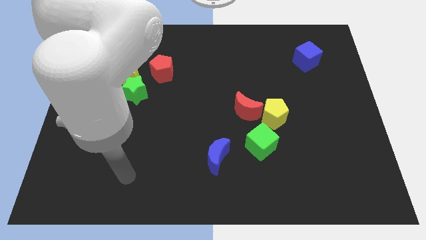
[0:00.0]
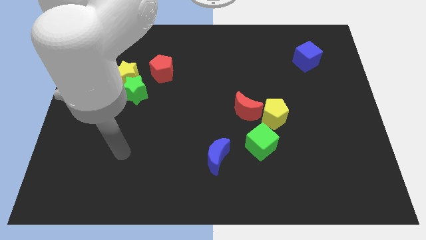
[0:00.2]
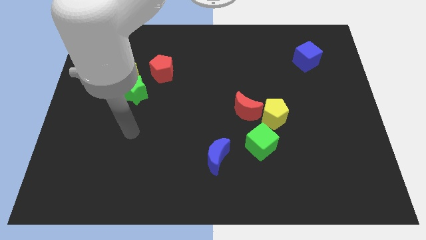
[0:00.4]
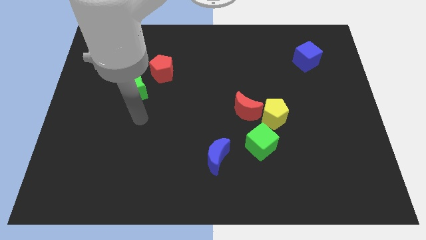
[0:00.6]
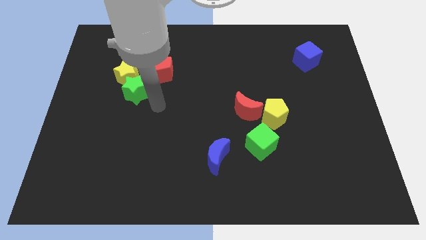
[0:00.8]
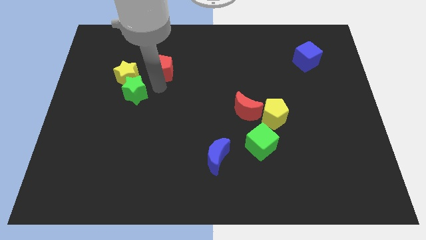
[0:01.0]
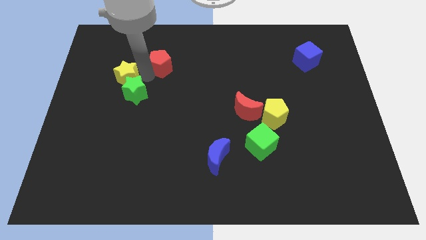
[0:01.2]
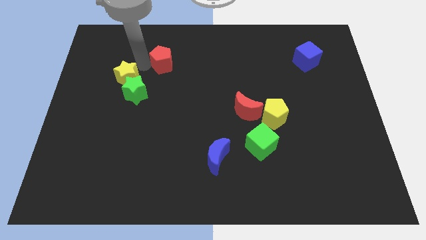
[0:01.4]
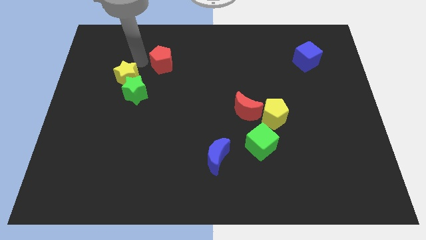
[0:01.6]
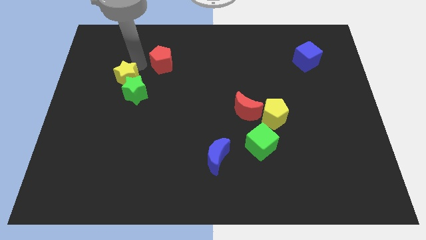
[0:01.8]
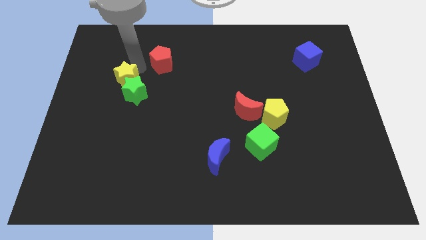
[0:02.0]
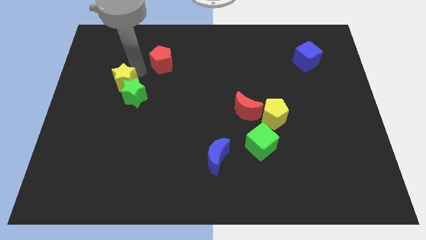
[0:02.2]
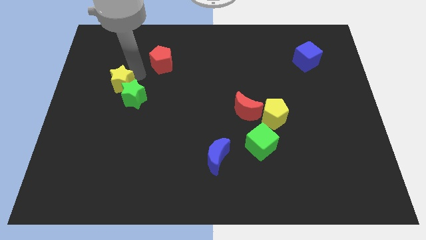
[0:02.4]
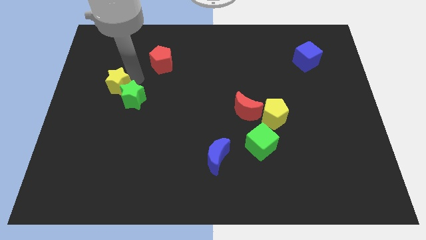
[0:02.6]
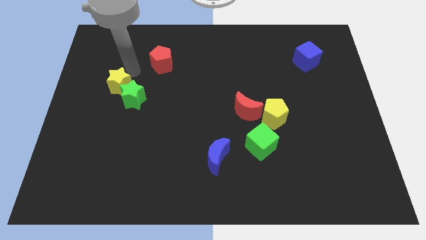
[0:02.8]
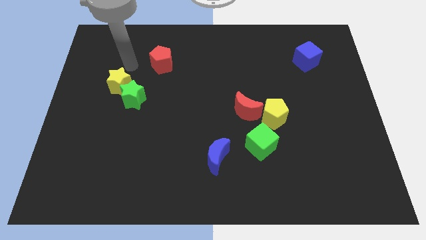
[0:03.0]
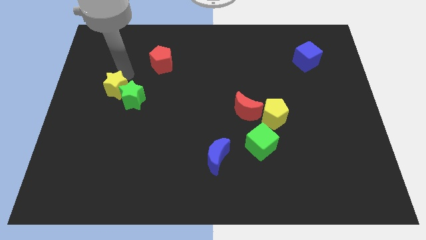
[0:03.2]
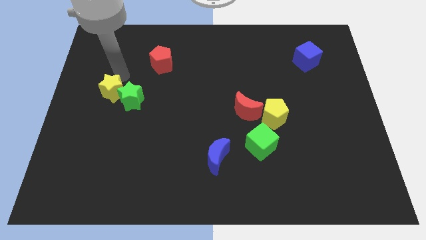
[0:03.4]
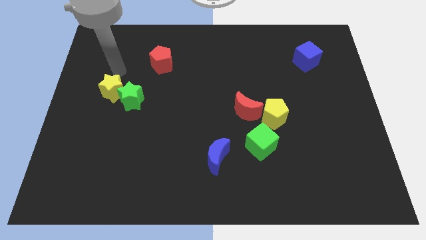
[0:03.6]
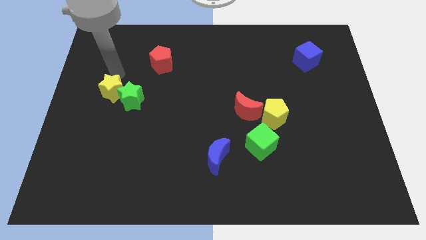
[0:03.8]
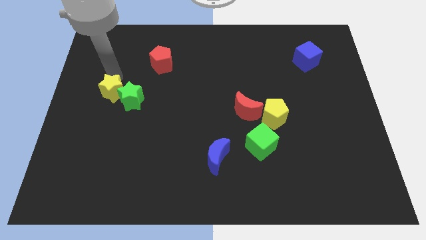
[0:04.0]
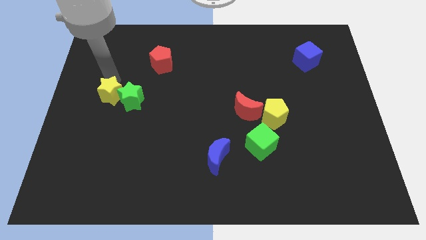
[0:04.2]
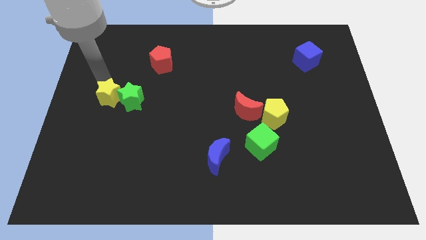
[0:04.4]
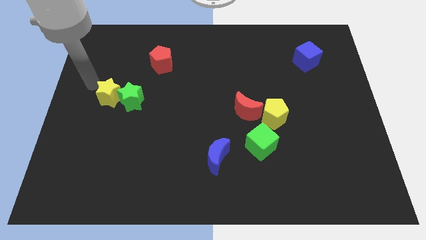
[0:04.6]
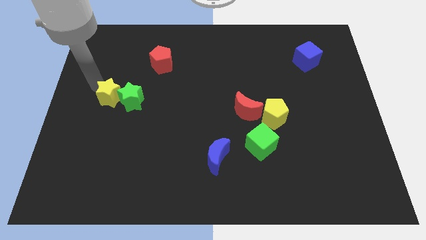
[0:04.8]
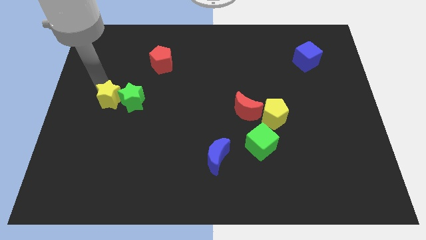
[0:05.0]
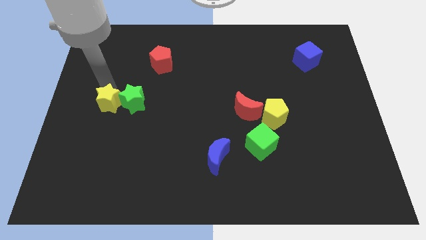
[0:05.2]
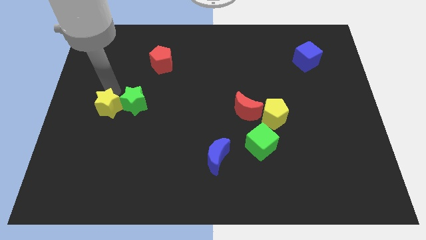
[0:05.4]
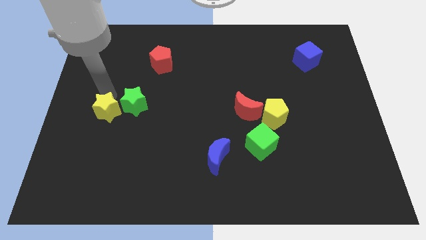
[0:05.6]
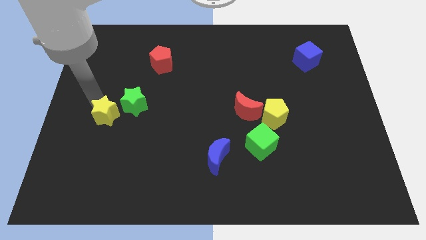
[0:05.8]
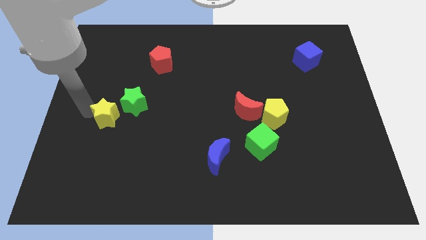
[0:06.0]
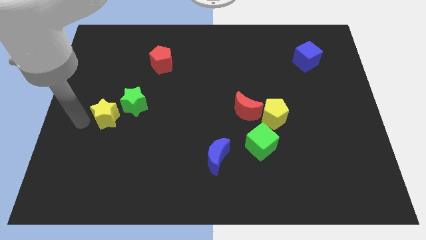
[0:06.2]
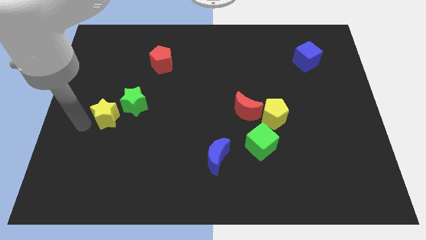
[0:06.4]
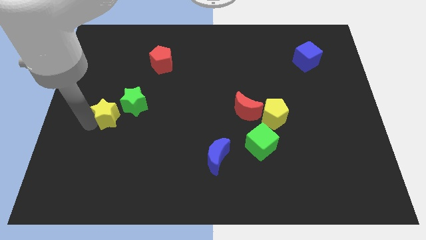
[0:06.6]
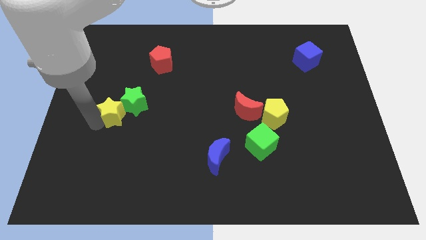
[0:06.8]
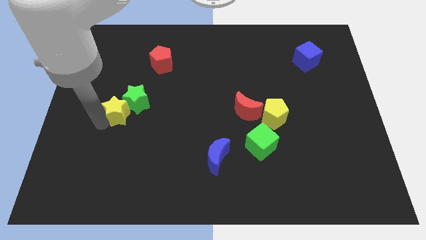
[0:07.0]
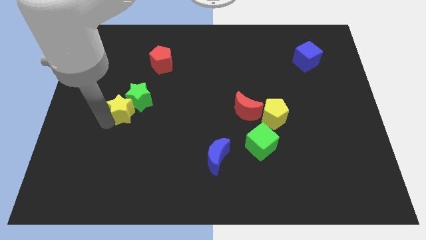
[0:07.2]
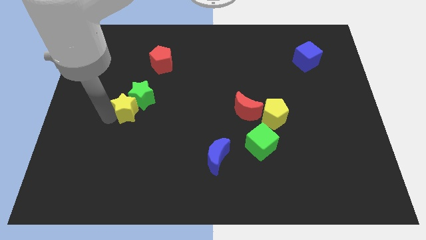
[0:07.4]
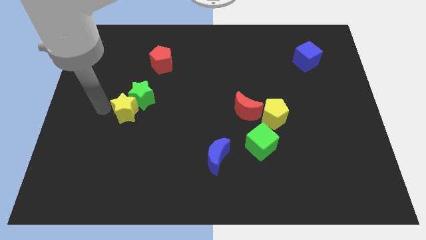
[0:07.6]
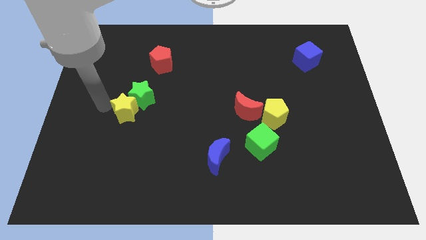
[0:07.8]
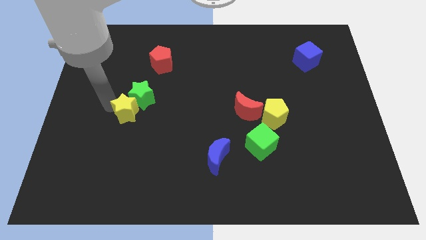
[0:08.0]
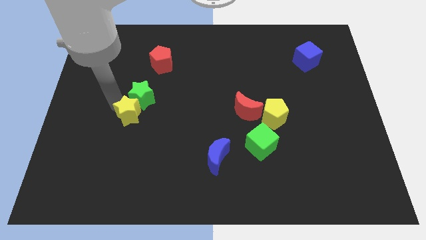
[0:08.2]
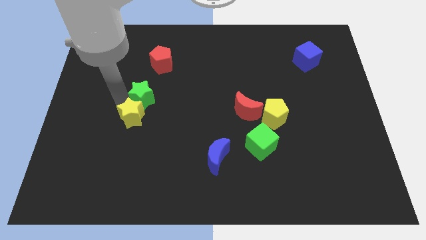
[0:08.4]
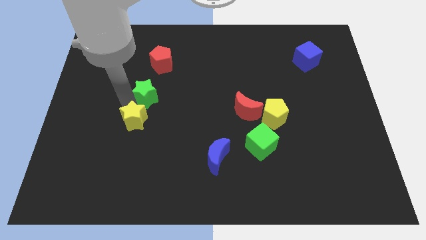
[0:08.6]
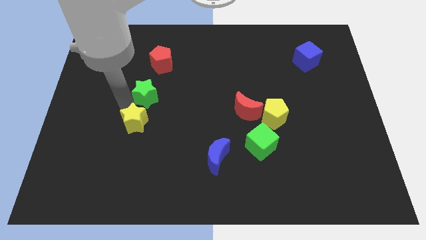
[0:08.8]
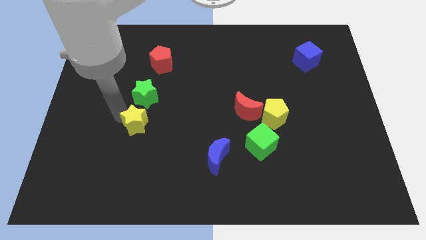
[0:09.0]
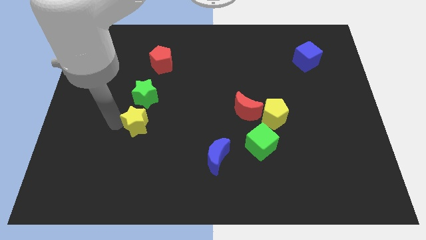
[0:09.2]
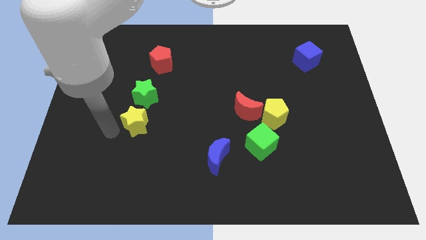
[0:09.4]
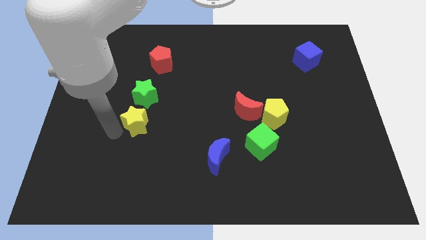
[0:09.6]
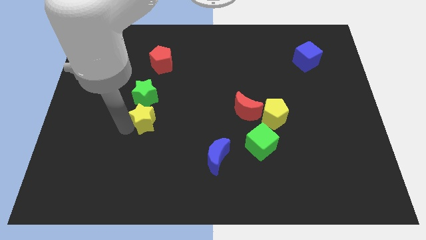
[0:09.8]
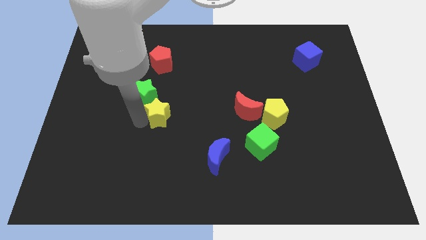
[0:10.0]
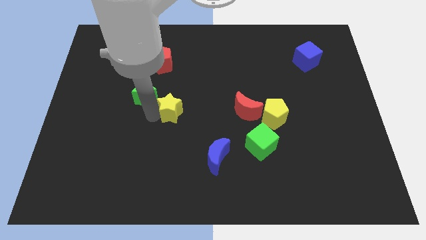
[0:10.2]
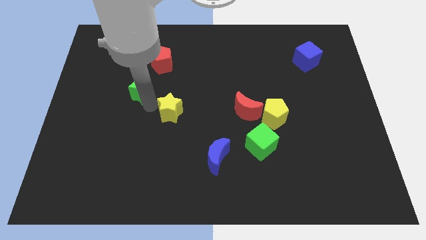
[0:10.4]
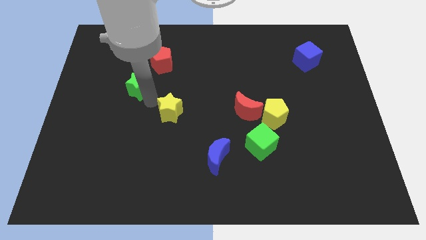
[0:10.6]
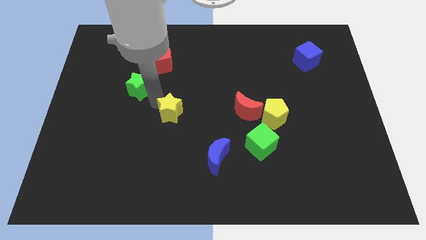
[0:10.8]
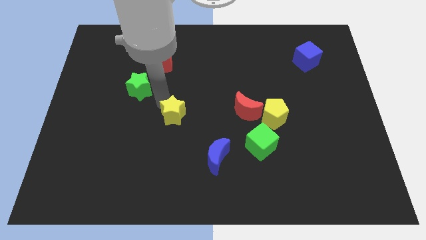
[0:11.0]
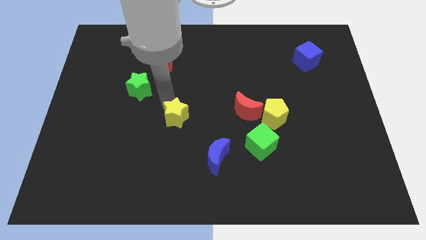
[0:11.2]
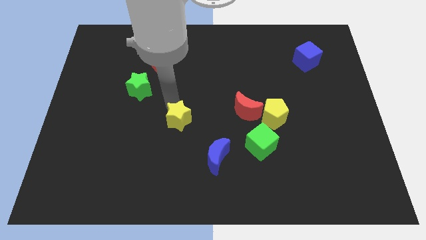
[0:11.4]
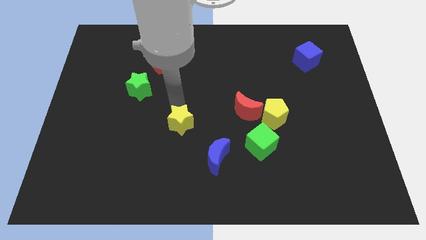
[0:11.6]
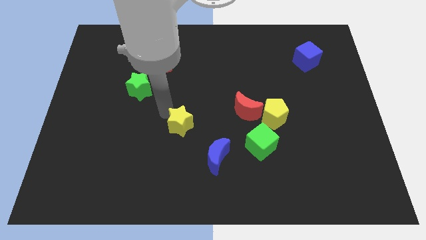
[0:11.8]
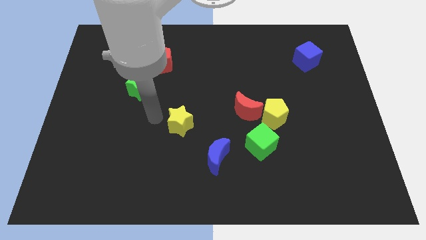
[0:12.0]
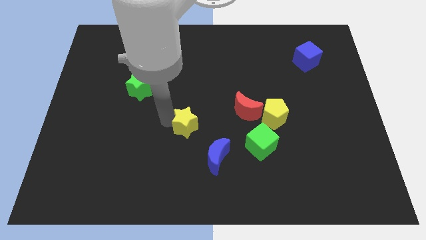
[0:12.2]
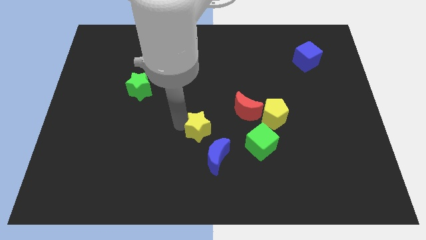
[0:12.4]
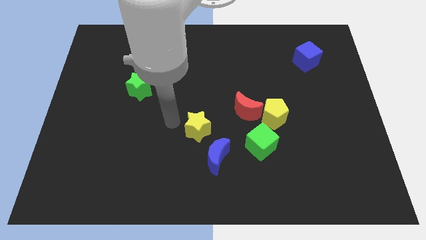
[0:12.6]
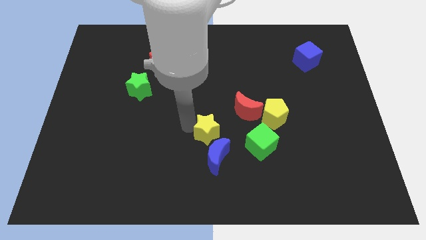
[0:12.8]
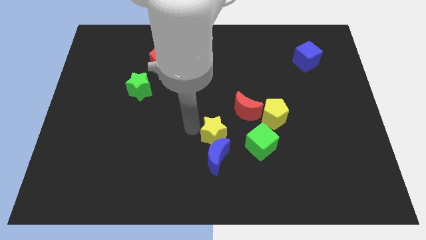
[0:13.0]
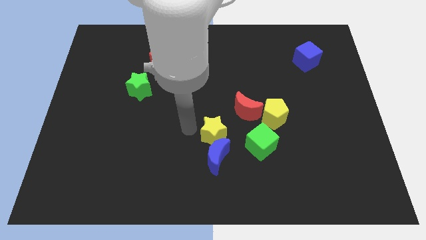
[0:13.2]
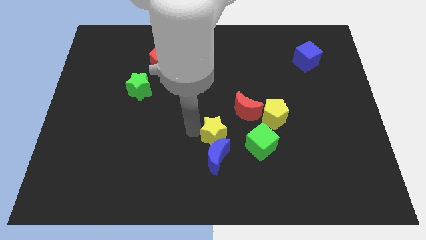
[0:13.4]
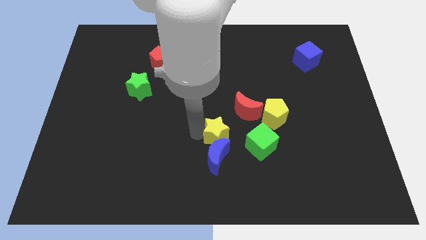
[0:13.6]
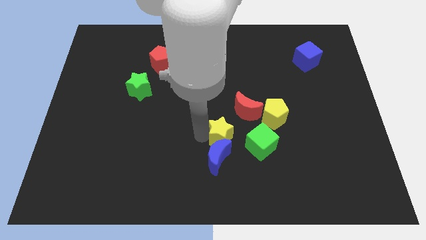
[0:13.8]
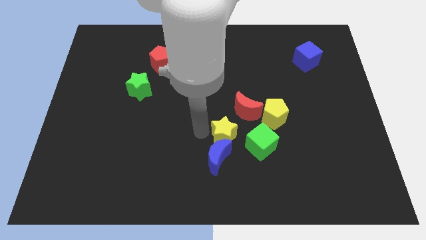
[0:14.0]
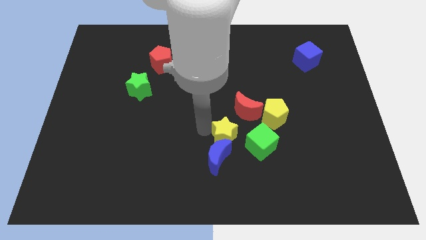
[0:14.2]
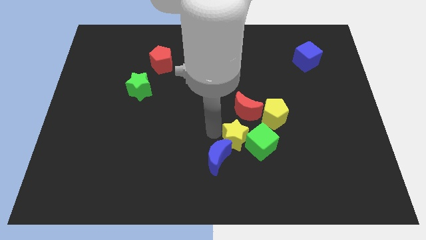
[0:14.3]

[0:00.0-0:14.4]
push the yellow star close to the green cube

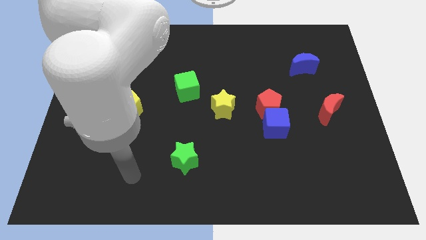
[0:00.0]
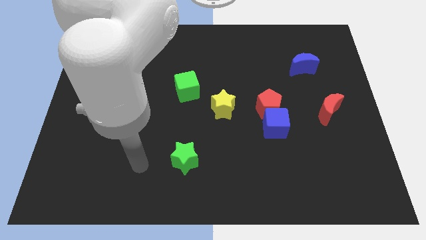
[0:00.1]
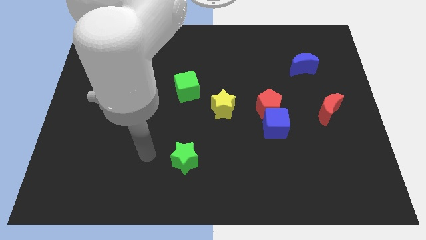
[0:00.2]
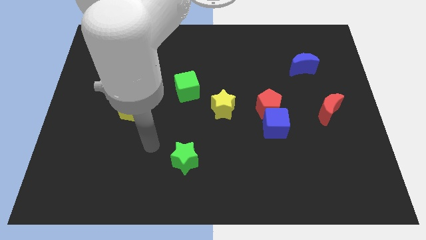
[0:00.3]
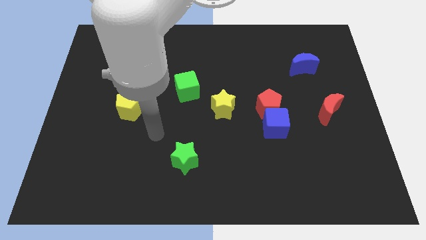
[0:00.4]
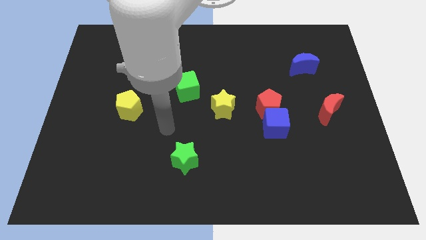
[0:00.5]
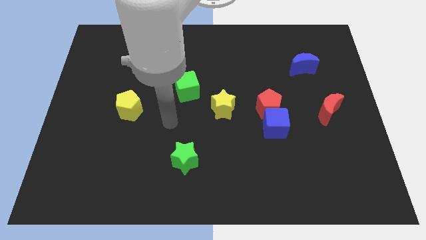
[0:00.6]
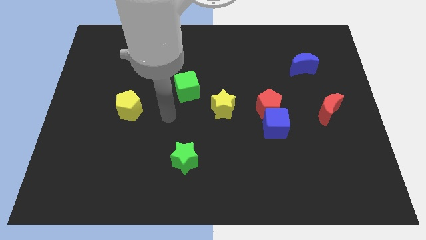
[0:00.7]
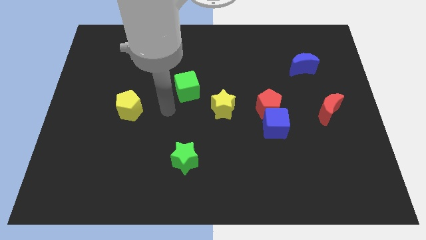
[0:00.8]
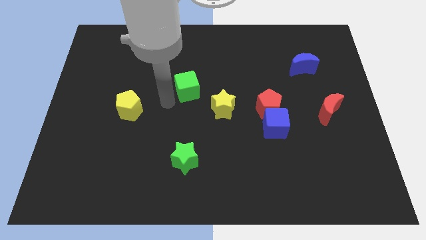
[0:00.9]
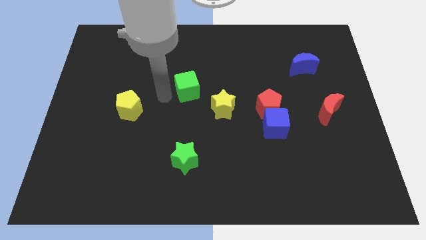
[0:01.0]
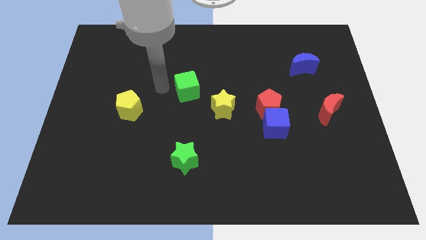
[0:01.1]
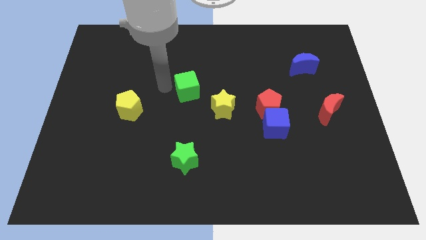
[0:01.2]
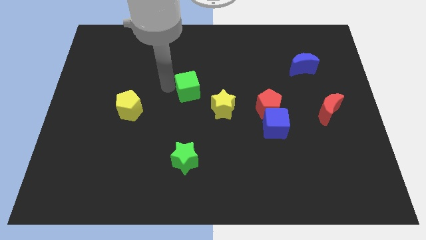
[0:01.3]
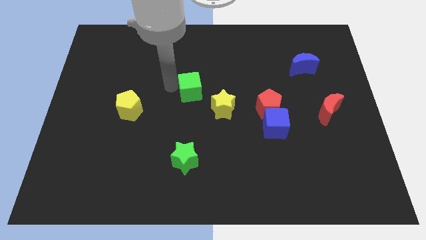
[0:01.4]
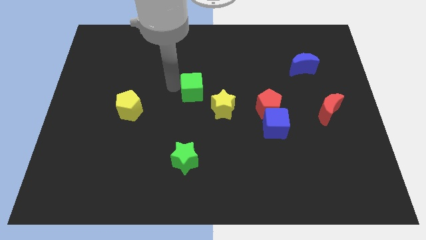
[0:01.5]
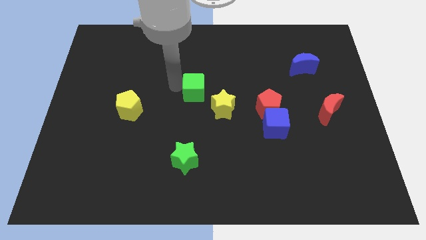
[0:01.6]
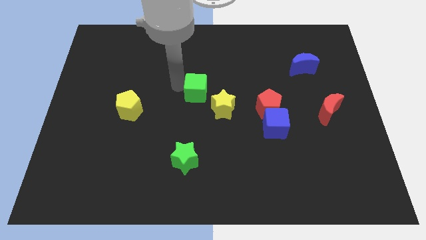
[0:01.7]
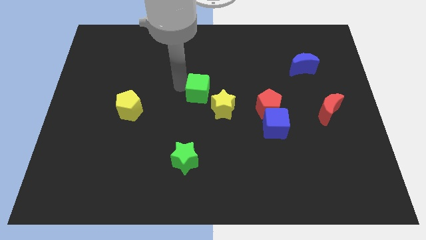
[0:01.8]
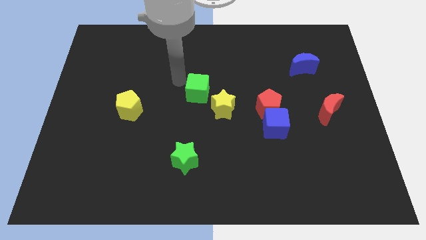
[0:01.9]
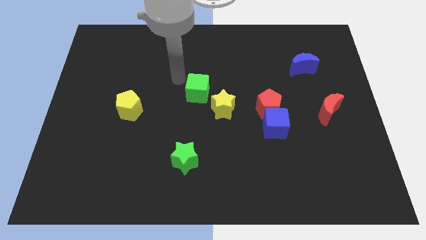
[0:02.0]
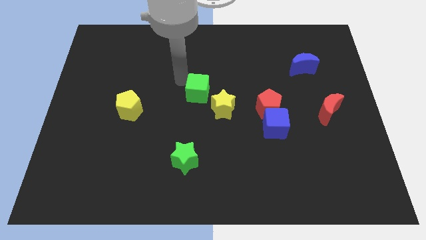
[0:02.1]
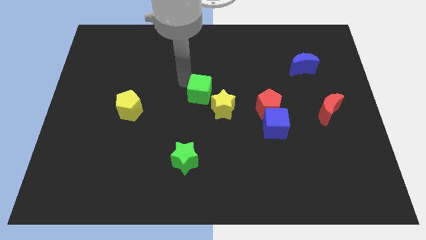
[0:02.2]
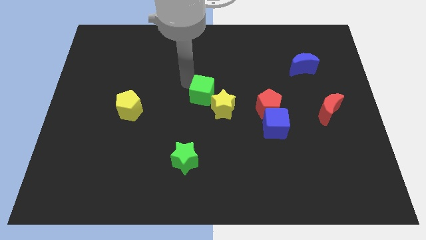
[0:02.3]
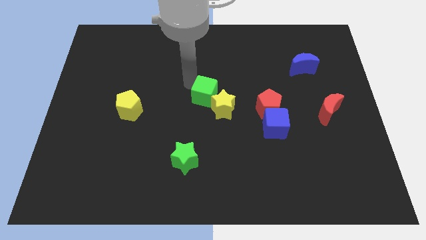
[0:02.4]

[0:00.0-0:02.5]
put the green cube to the yellow star
